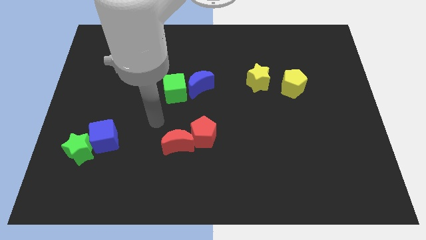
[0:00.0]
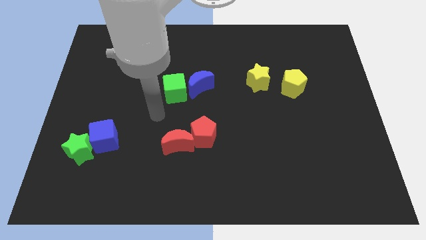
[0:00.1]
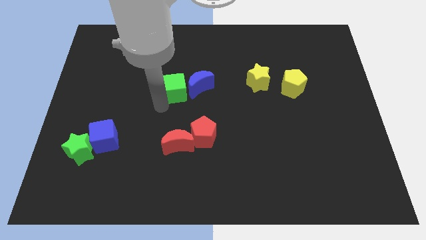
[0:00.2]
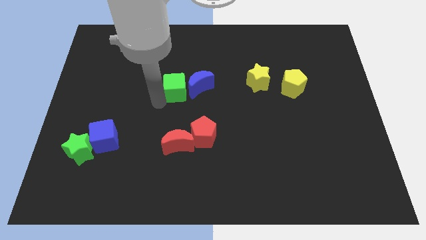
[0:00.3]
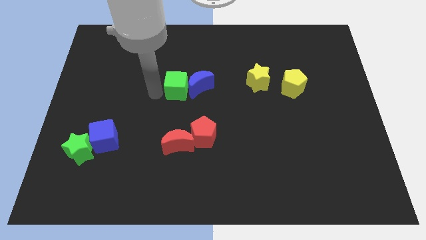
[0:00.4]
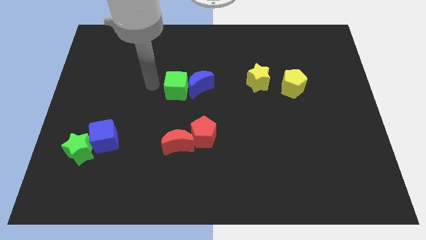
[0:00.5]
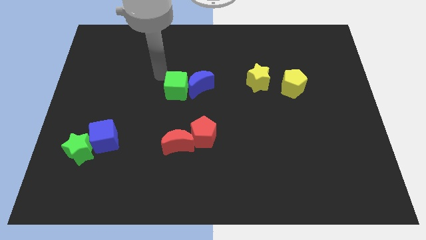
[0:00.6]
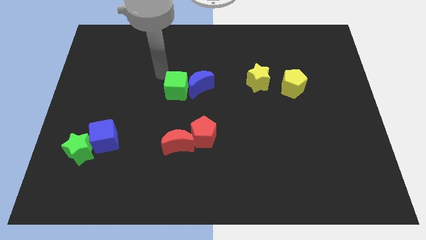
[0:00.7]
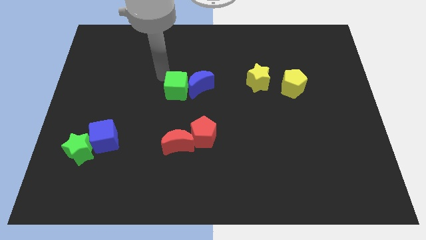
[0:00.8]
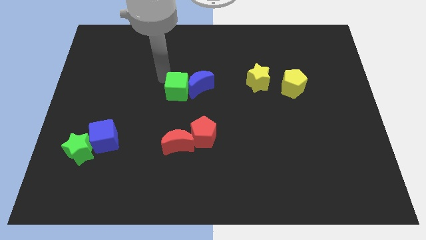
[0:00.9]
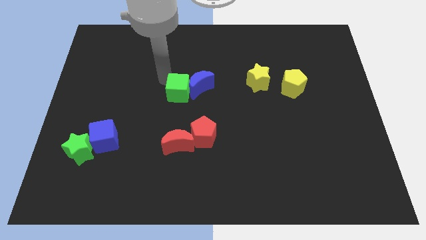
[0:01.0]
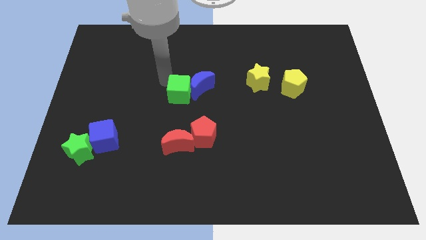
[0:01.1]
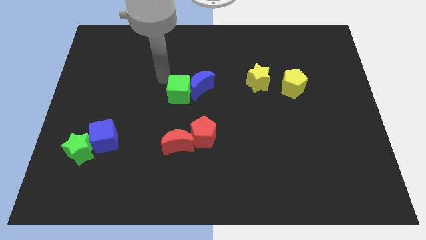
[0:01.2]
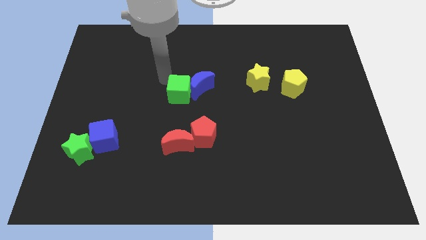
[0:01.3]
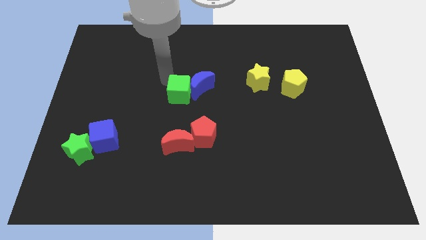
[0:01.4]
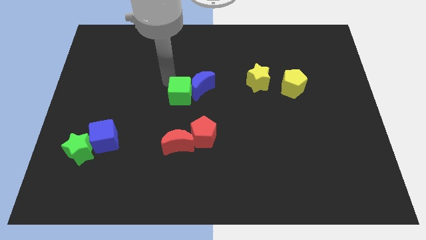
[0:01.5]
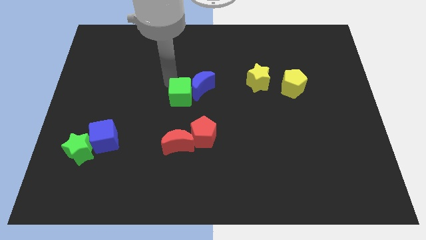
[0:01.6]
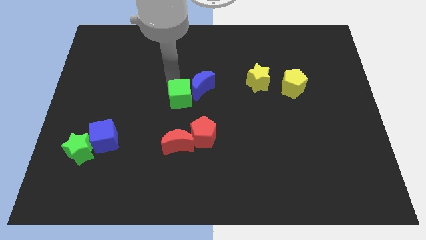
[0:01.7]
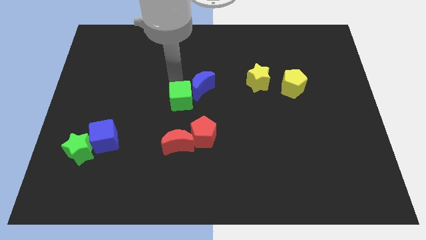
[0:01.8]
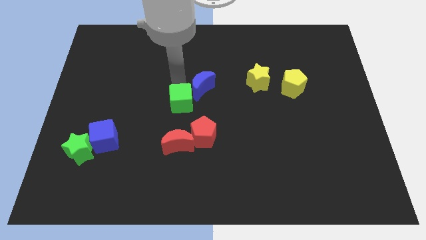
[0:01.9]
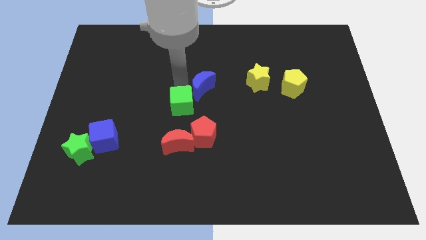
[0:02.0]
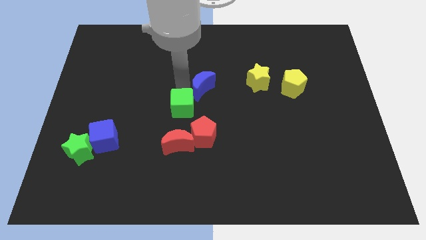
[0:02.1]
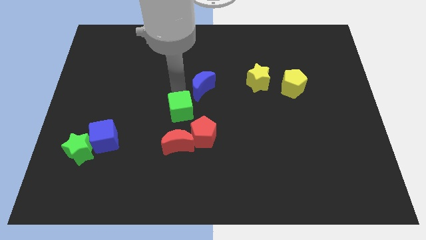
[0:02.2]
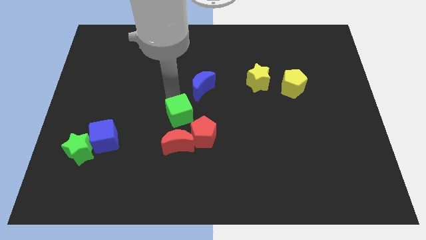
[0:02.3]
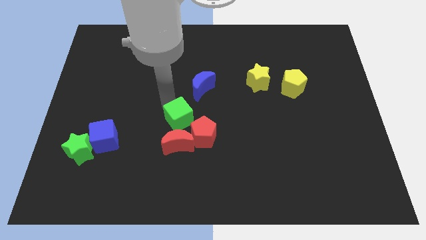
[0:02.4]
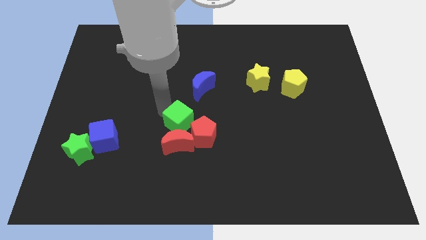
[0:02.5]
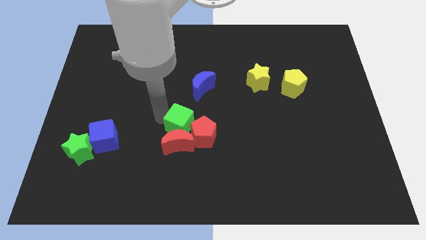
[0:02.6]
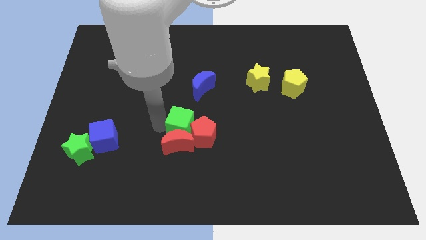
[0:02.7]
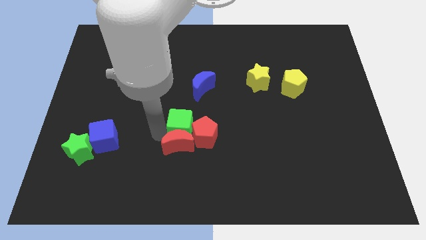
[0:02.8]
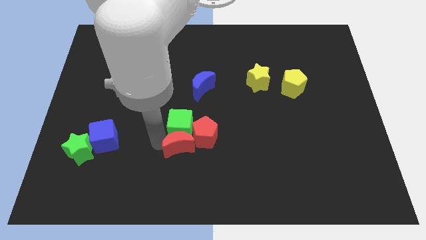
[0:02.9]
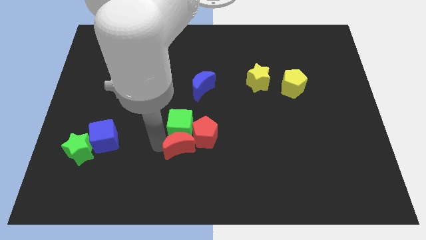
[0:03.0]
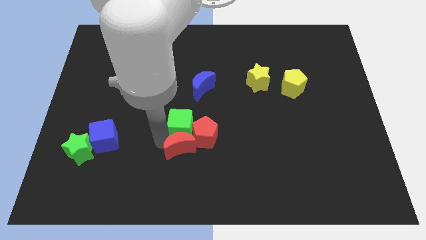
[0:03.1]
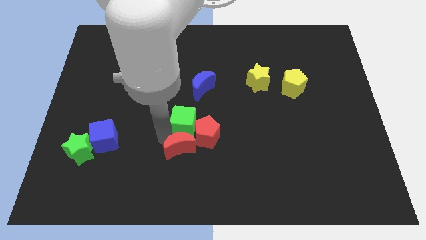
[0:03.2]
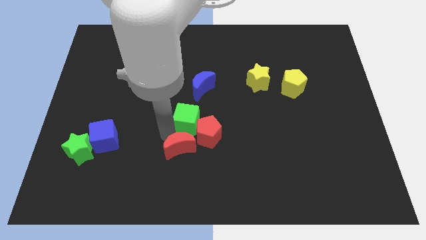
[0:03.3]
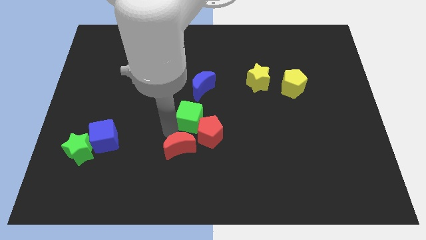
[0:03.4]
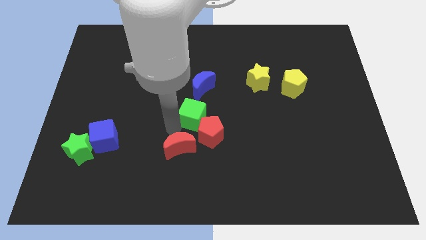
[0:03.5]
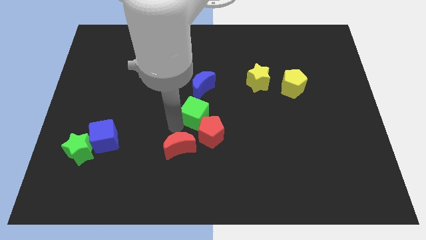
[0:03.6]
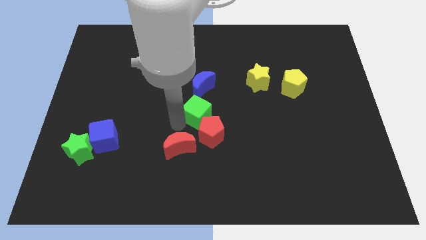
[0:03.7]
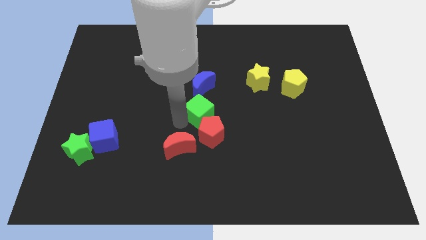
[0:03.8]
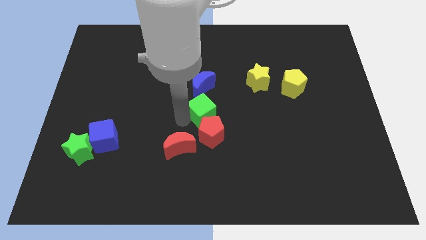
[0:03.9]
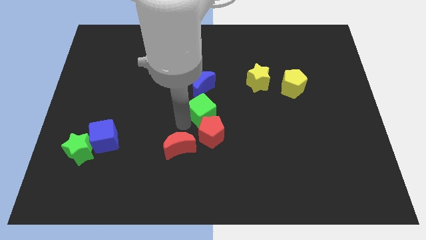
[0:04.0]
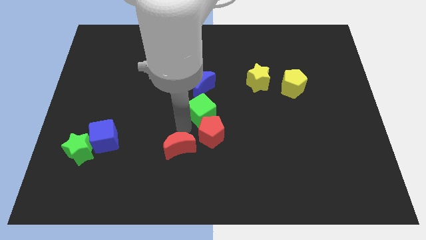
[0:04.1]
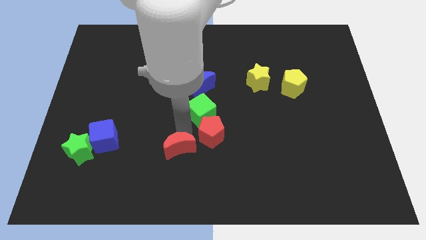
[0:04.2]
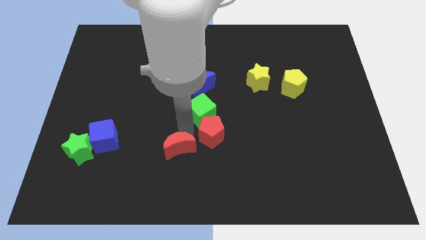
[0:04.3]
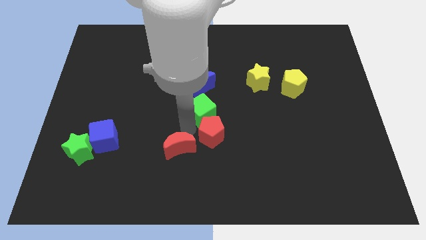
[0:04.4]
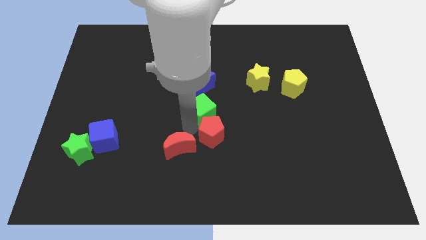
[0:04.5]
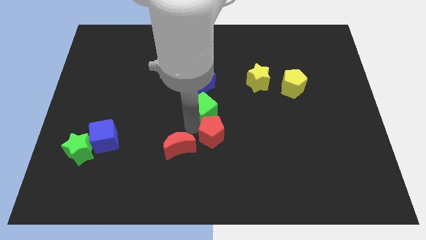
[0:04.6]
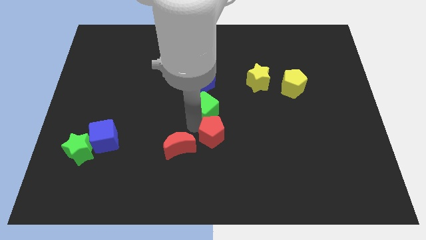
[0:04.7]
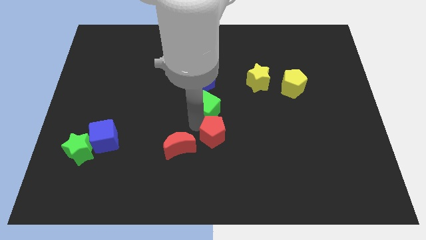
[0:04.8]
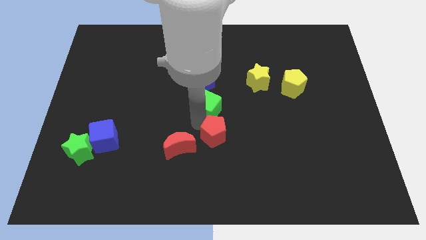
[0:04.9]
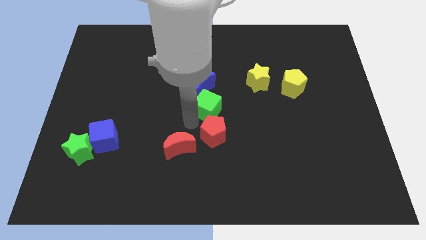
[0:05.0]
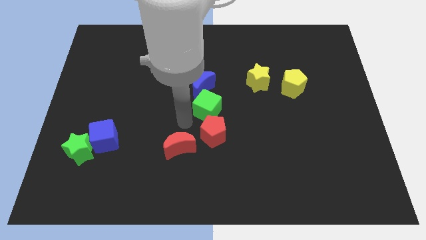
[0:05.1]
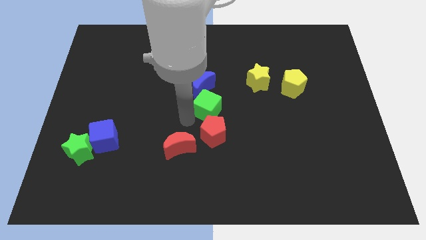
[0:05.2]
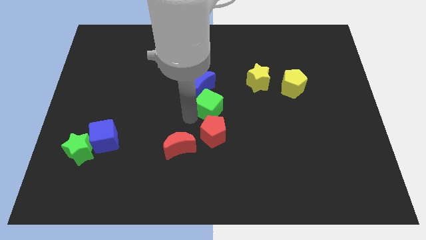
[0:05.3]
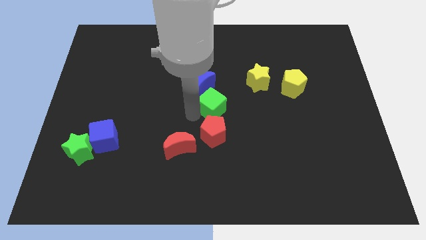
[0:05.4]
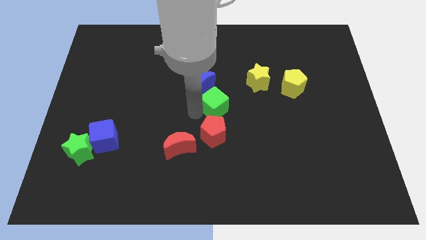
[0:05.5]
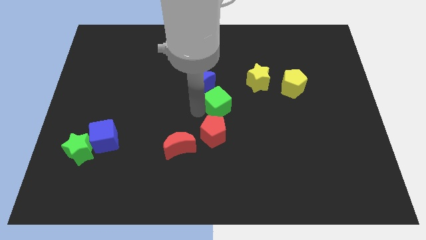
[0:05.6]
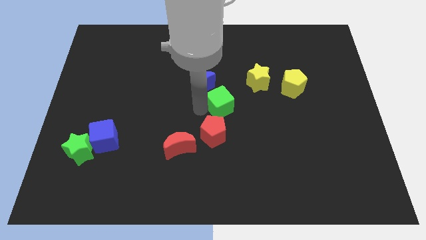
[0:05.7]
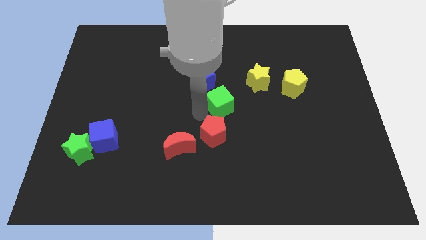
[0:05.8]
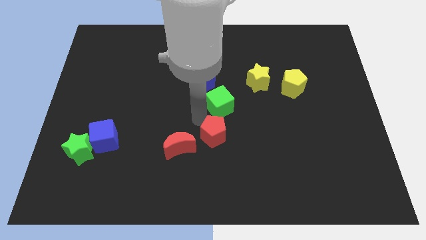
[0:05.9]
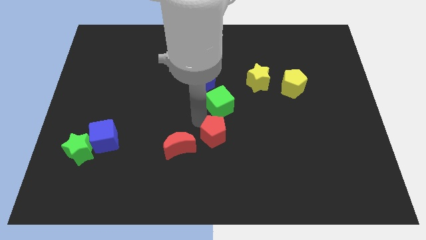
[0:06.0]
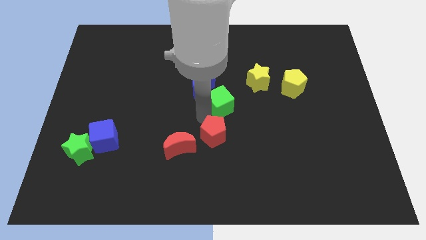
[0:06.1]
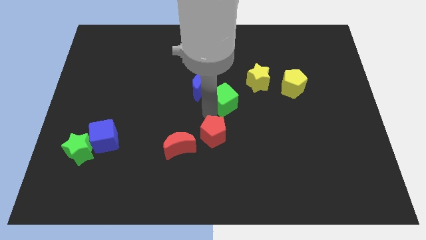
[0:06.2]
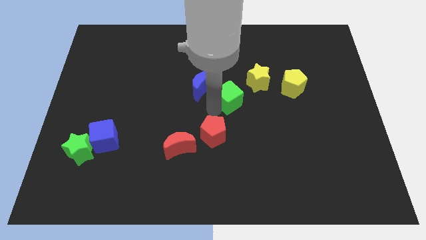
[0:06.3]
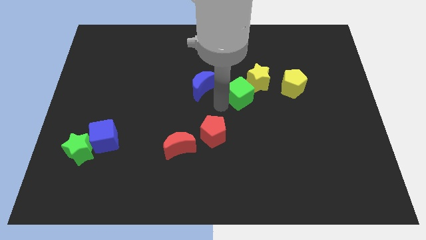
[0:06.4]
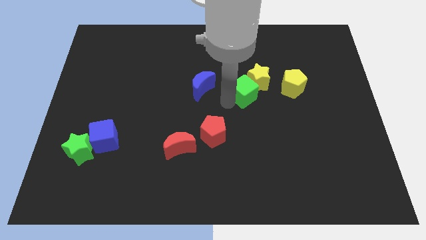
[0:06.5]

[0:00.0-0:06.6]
move the green cube to the yellow star
